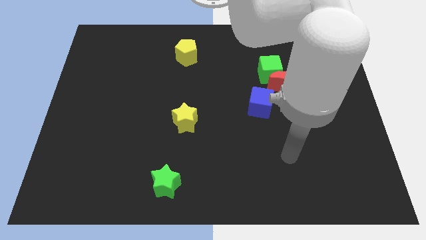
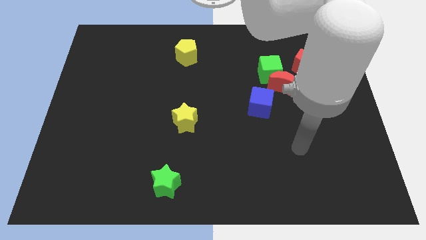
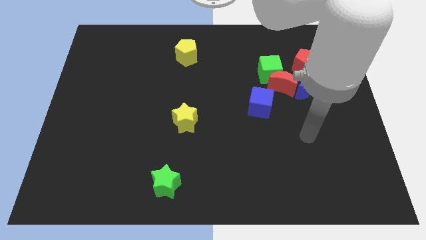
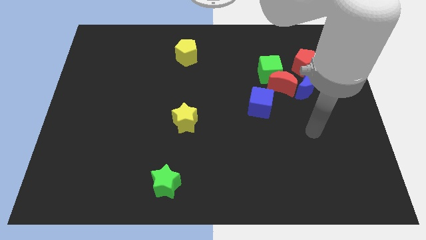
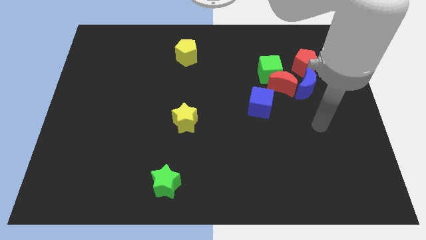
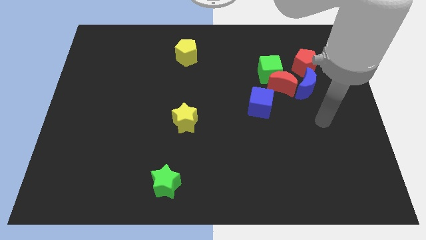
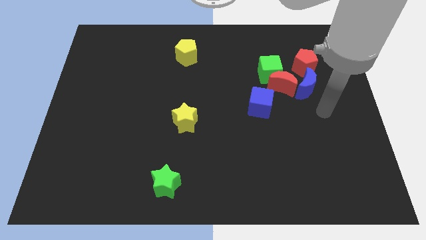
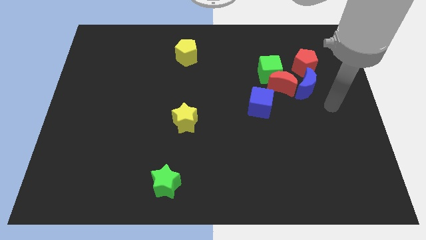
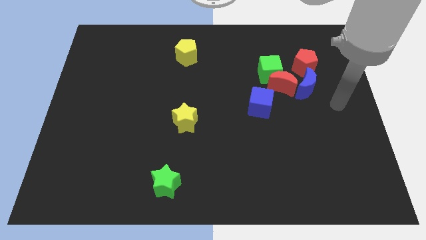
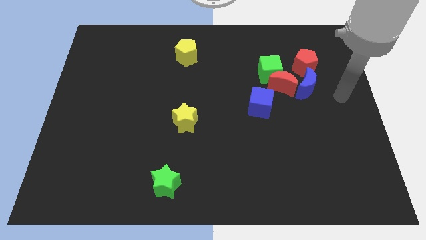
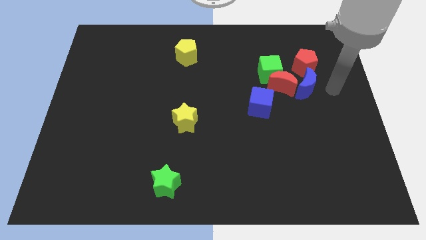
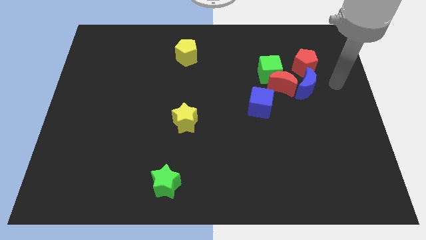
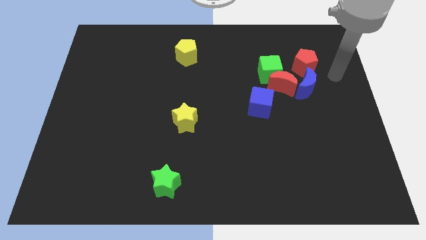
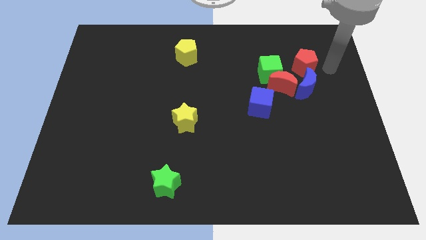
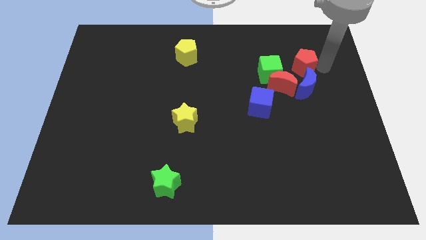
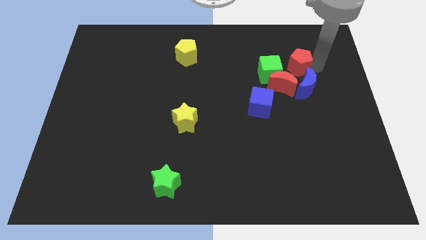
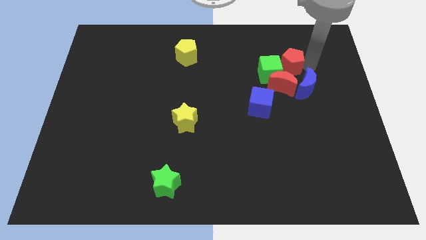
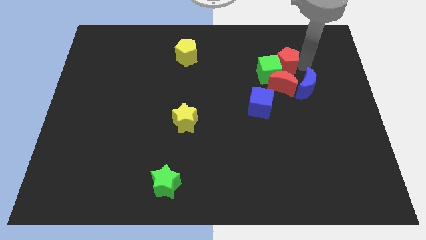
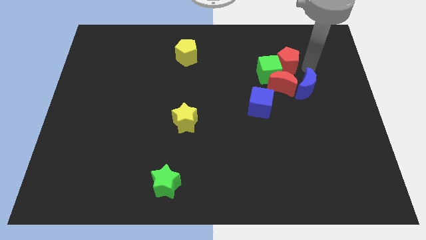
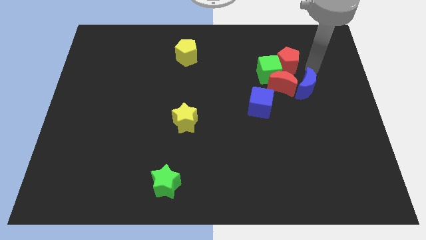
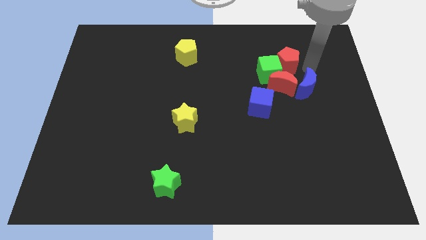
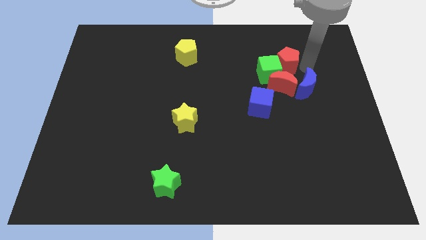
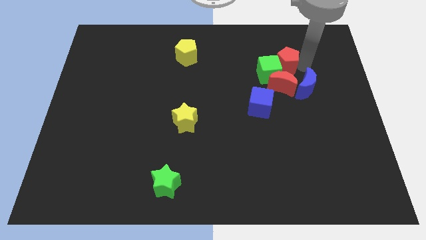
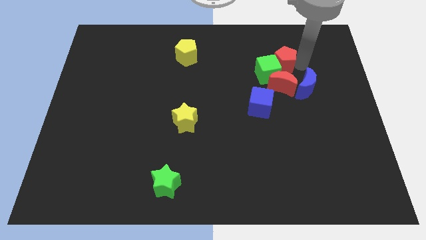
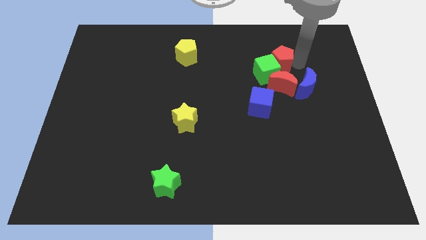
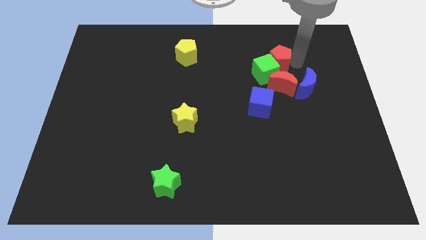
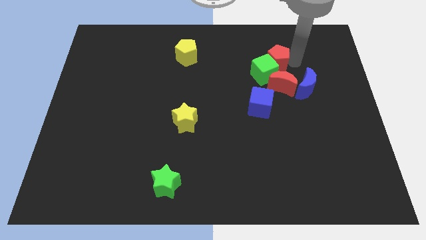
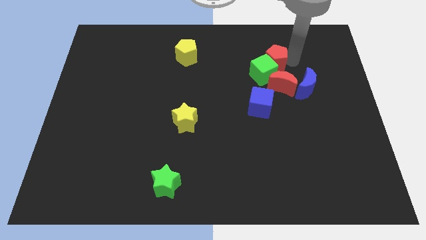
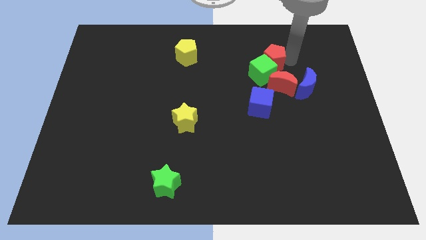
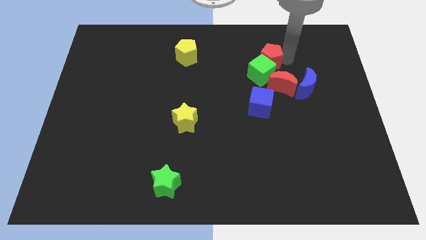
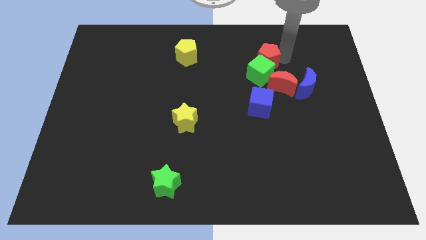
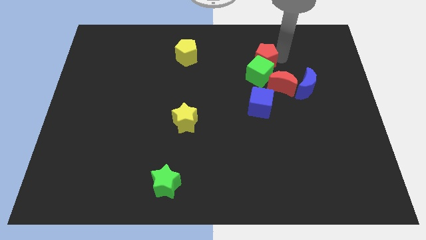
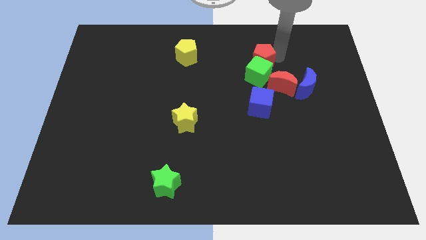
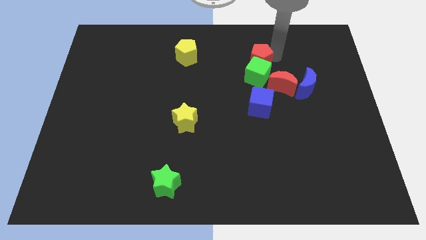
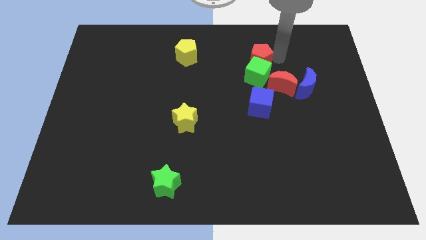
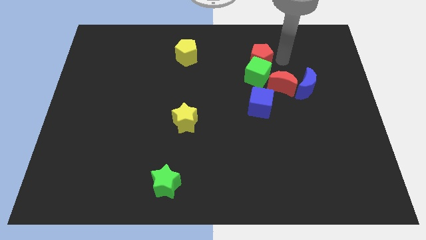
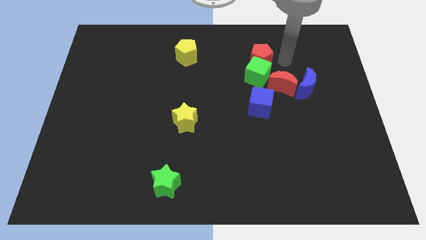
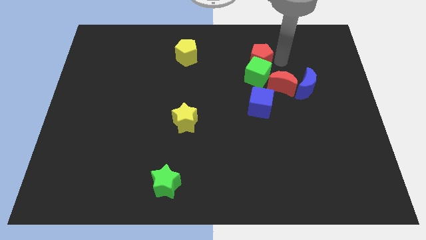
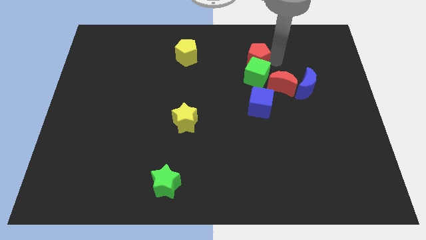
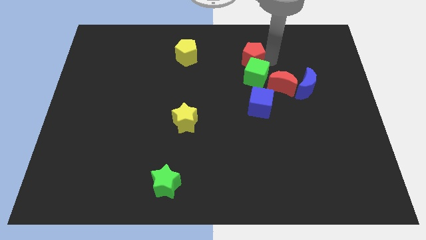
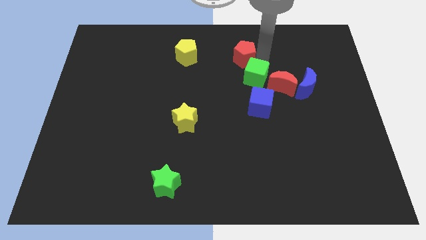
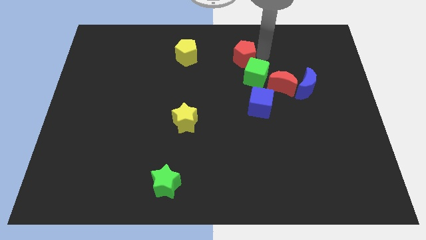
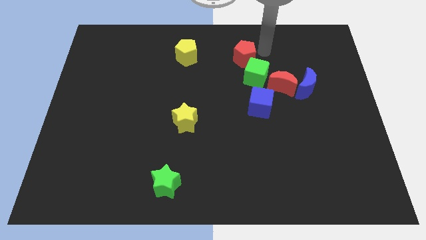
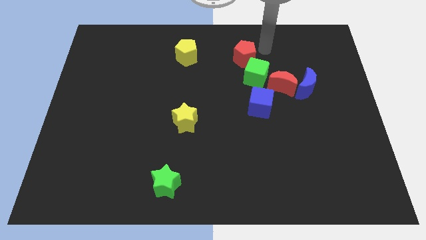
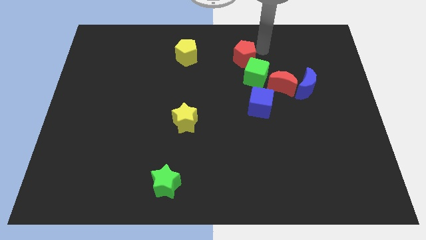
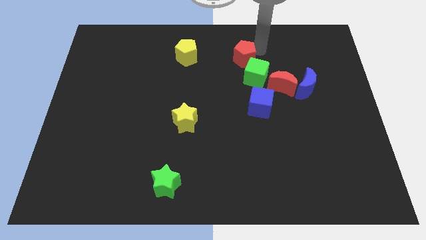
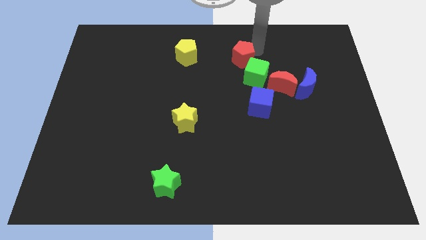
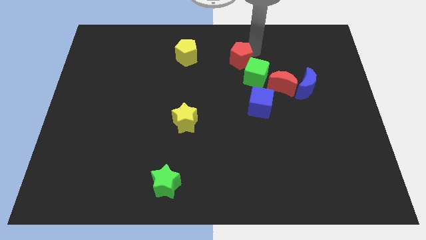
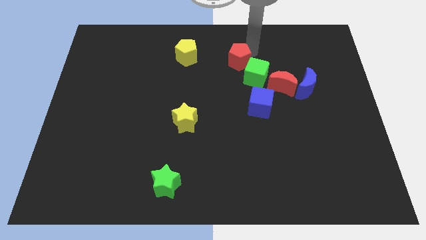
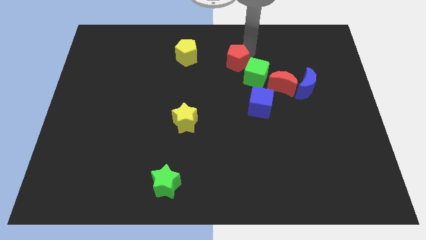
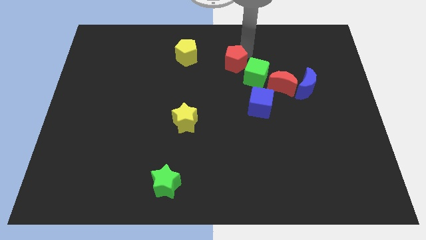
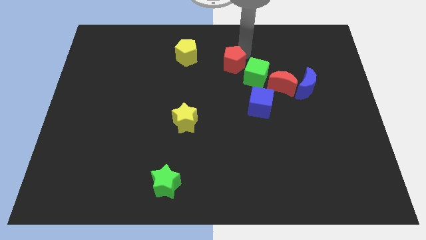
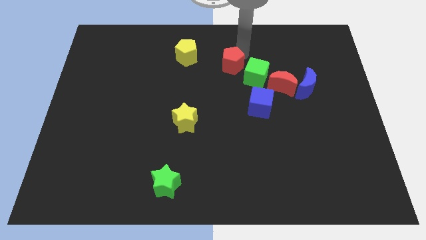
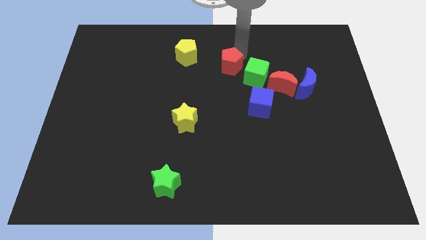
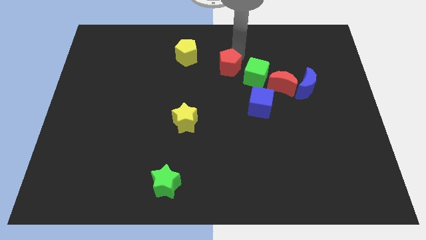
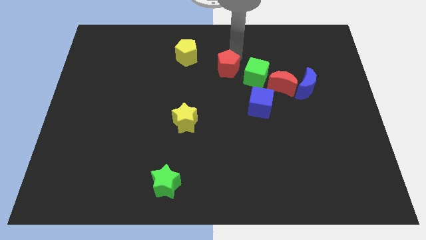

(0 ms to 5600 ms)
slide the red pentagon to the left

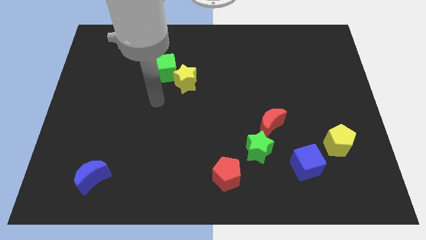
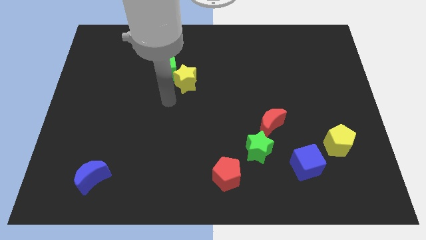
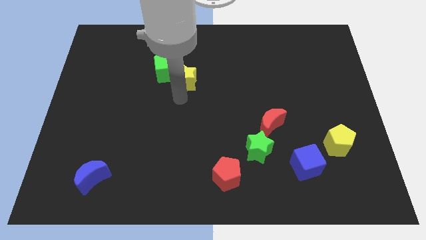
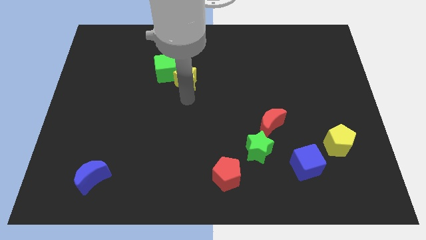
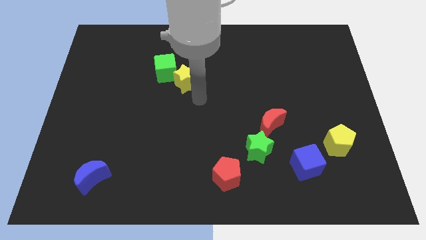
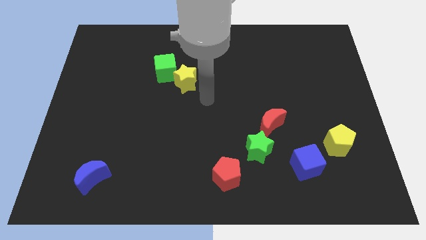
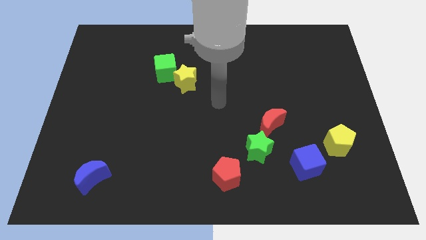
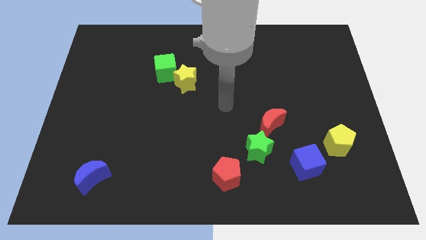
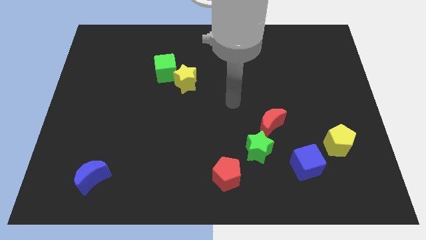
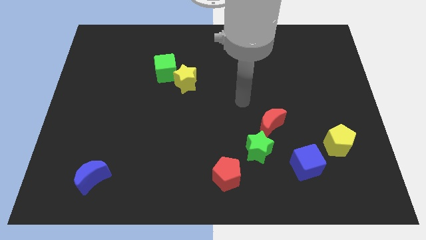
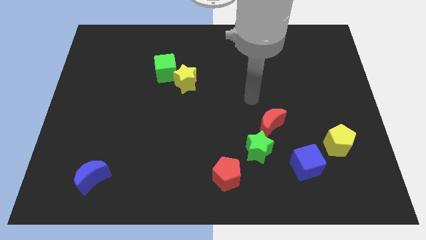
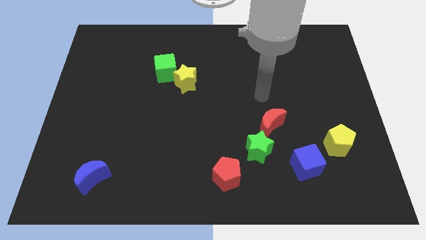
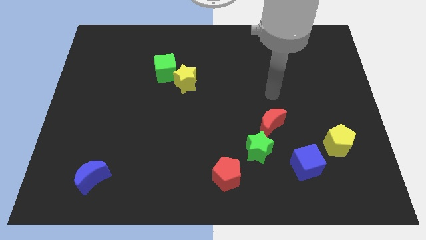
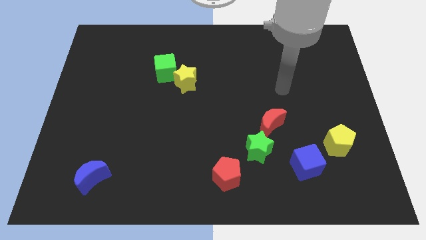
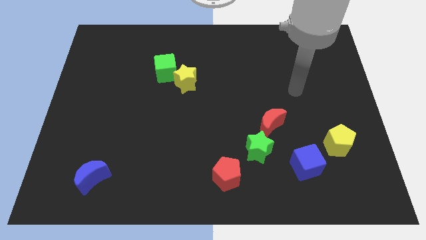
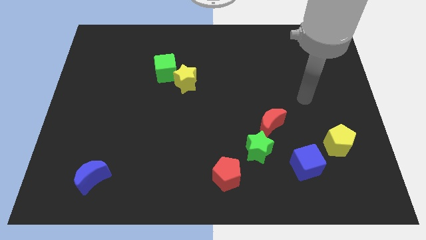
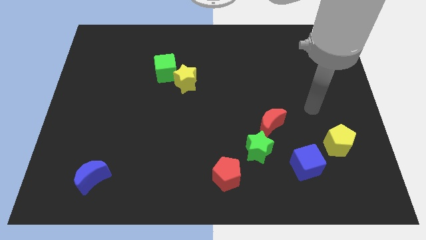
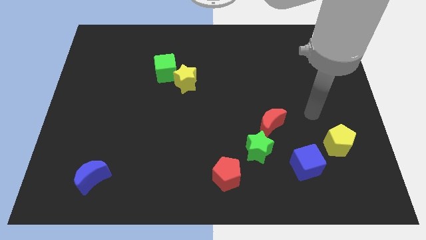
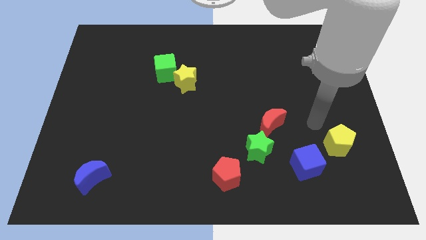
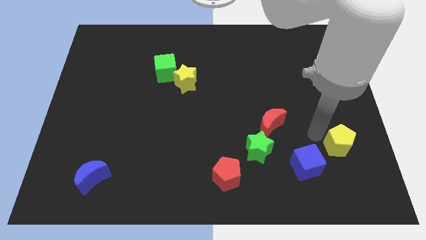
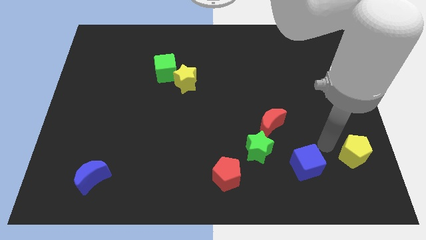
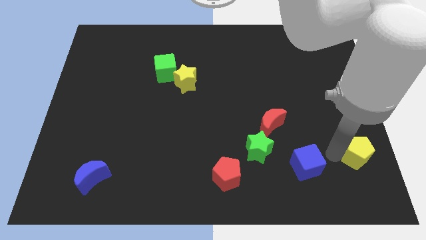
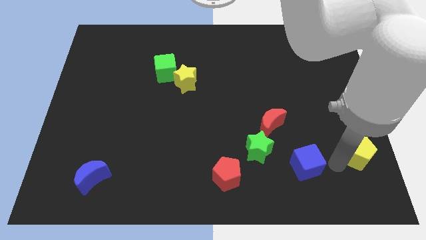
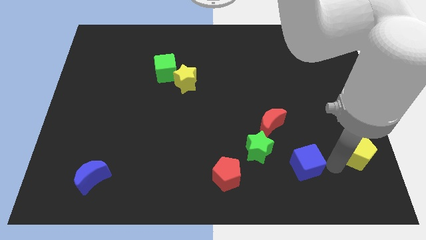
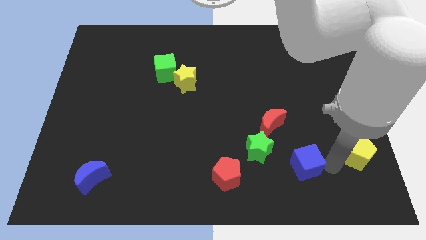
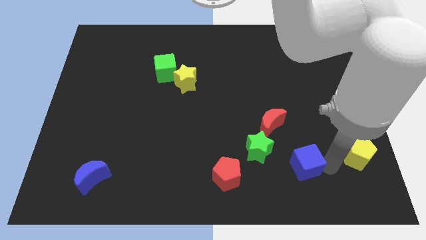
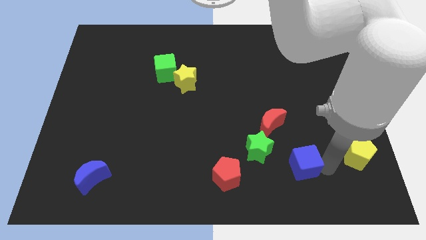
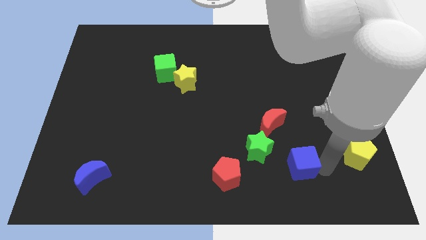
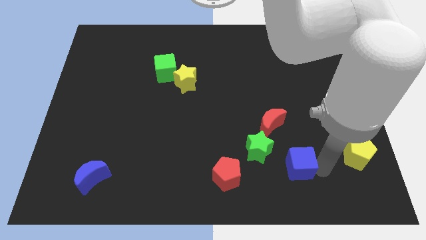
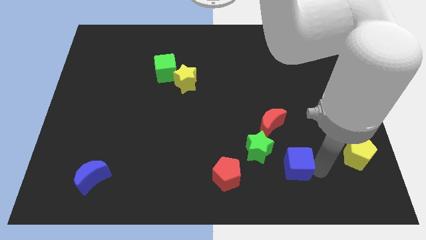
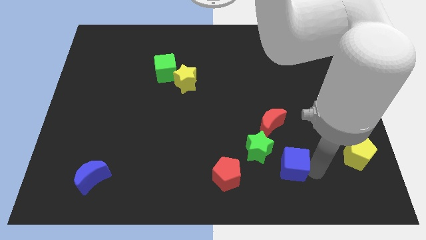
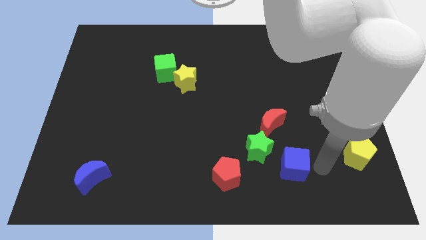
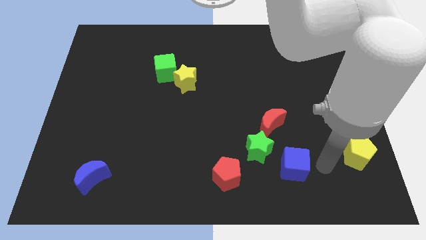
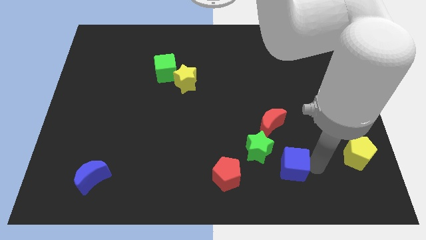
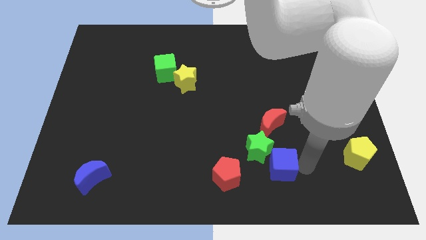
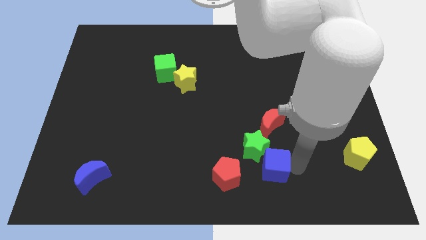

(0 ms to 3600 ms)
push the blue cube a bit left
